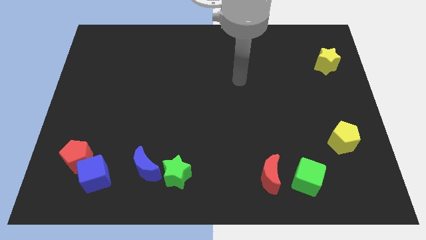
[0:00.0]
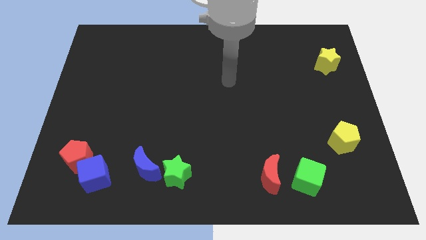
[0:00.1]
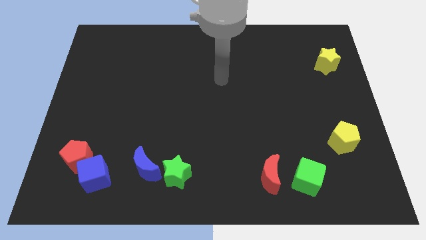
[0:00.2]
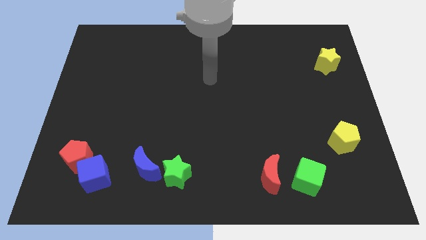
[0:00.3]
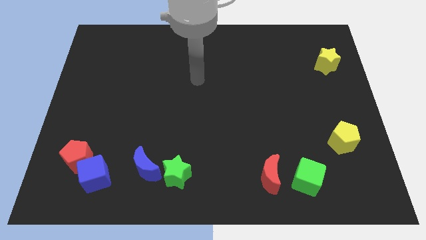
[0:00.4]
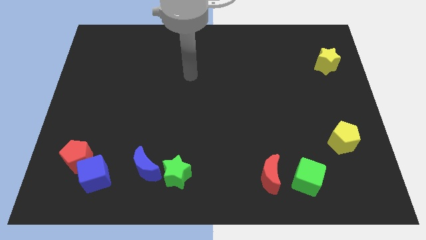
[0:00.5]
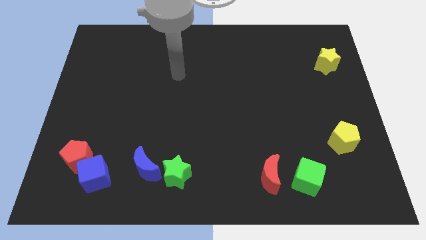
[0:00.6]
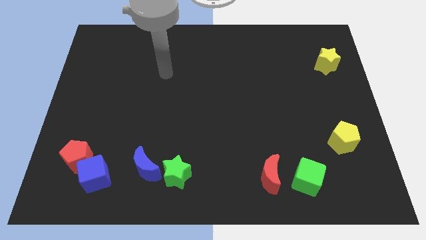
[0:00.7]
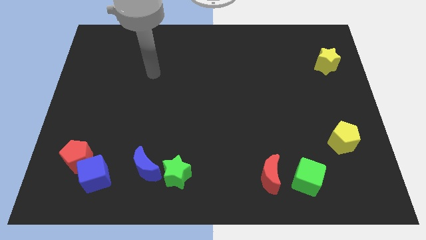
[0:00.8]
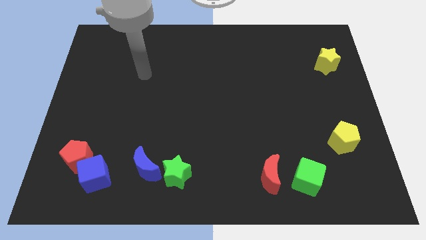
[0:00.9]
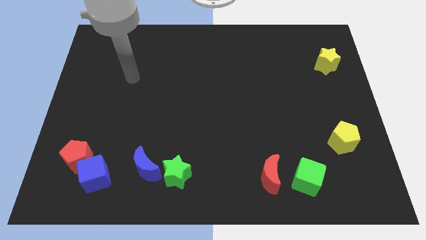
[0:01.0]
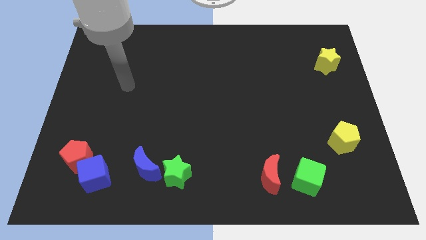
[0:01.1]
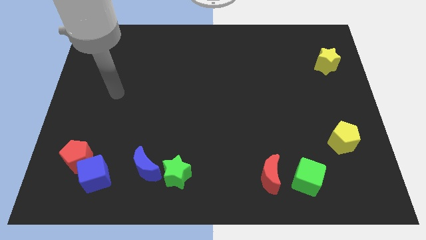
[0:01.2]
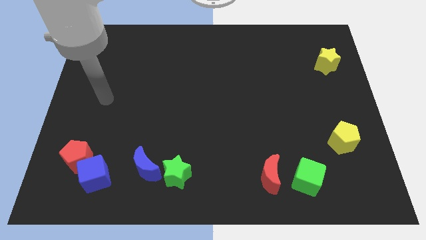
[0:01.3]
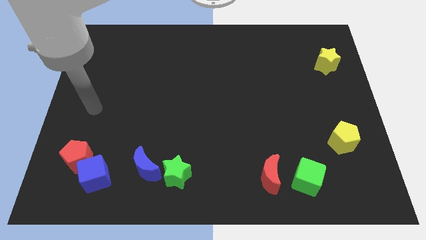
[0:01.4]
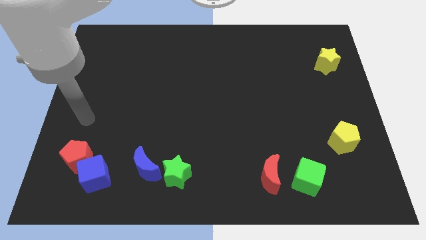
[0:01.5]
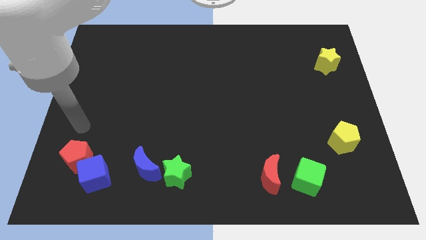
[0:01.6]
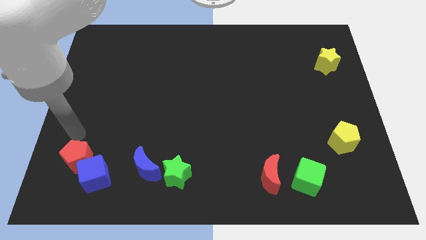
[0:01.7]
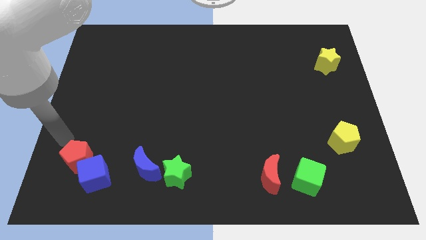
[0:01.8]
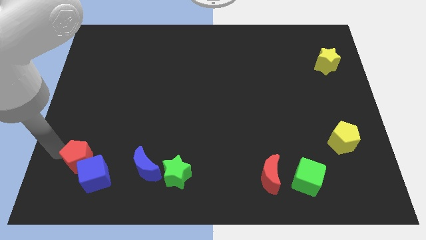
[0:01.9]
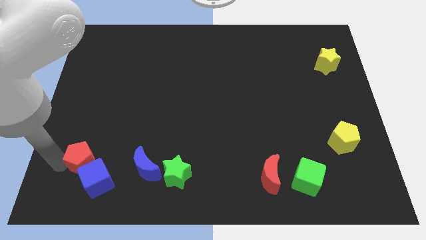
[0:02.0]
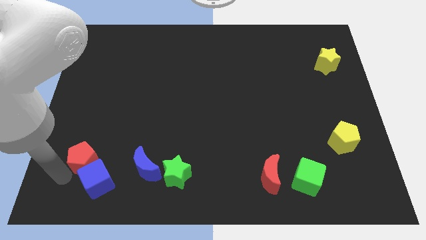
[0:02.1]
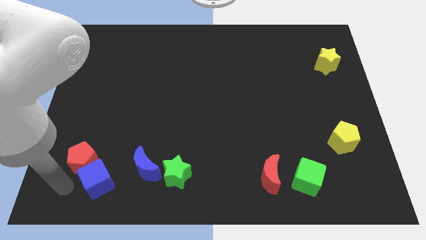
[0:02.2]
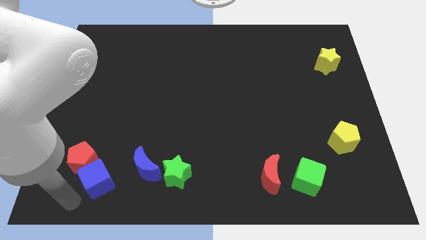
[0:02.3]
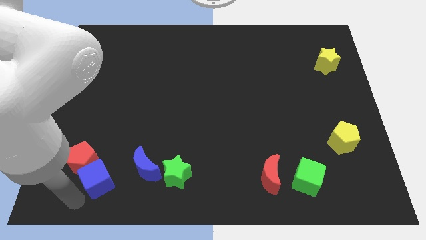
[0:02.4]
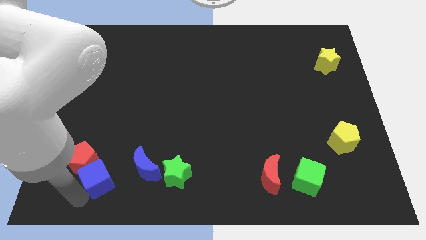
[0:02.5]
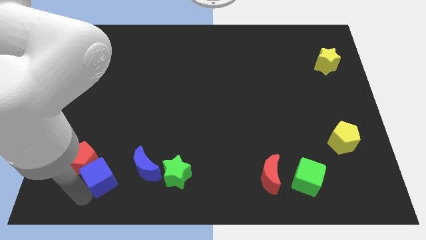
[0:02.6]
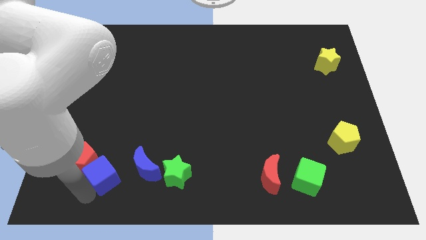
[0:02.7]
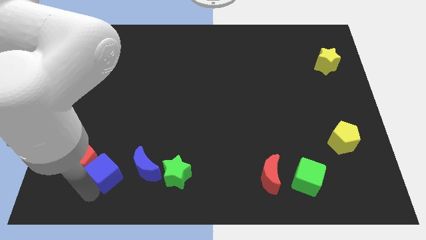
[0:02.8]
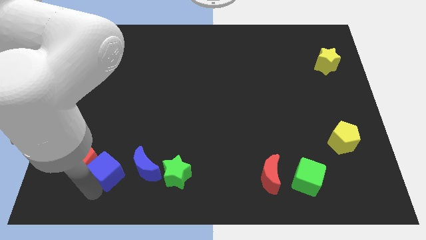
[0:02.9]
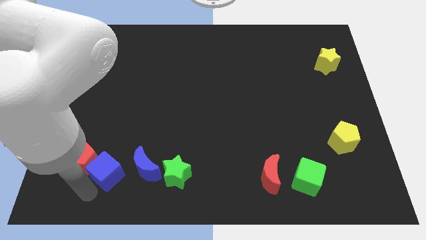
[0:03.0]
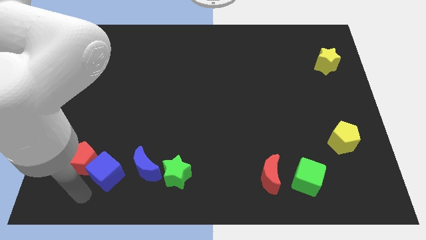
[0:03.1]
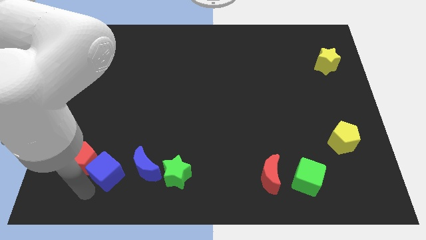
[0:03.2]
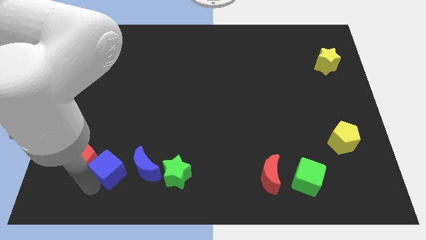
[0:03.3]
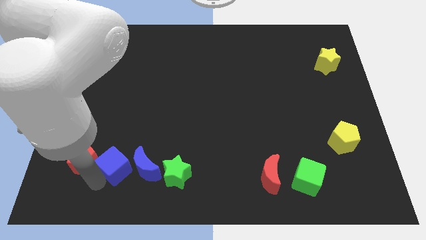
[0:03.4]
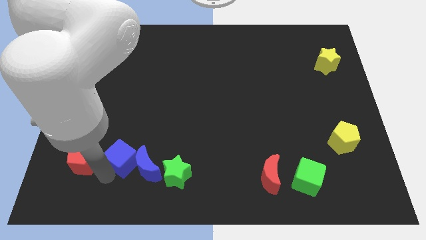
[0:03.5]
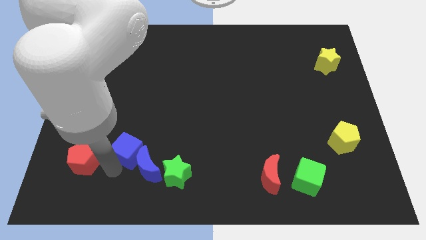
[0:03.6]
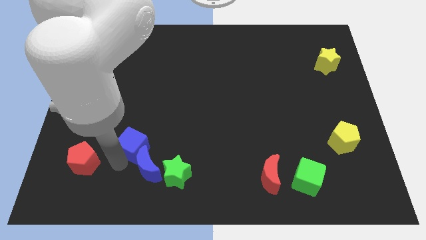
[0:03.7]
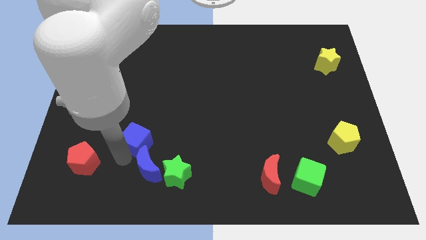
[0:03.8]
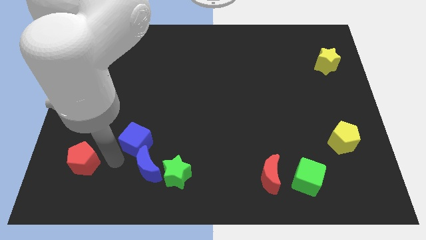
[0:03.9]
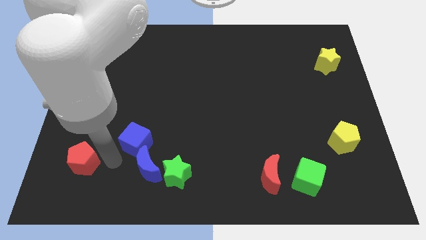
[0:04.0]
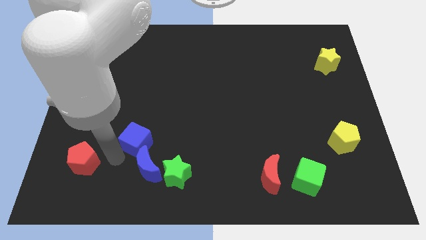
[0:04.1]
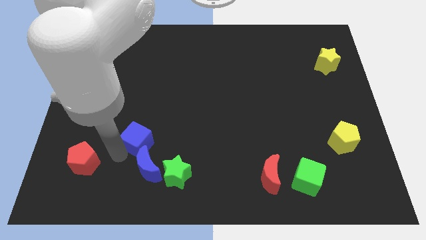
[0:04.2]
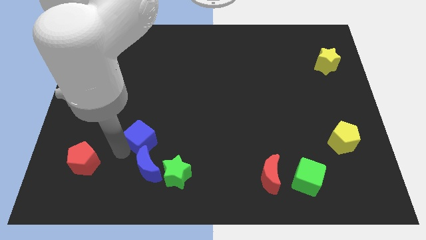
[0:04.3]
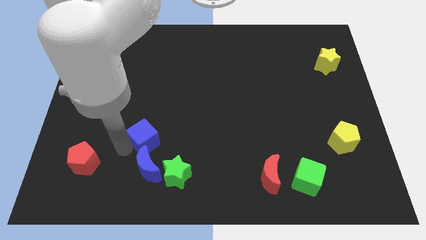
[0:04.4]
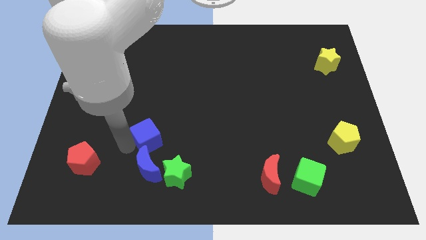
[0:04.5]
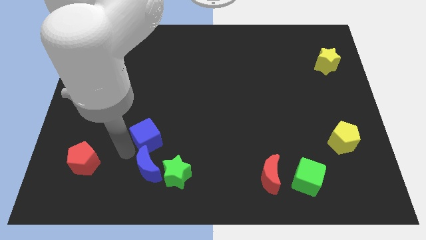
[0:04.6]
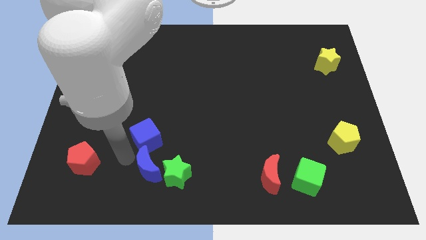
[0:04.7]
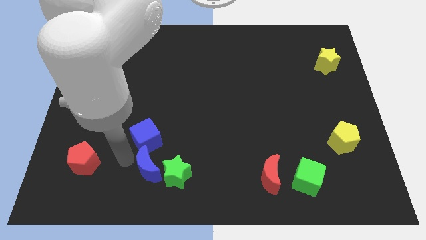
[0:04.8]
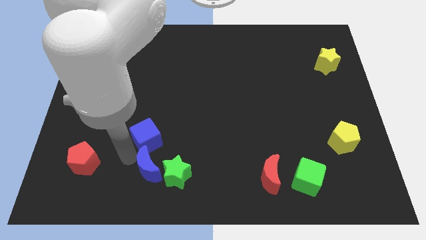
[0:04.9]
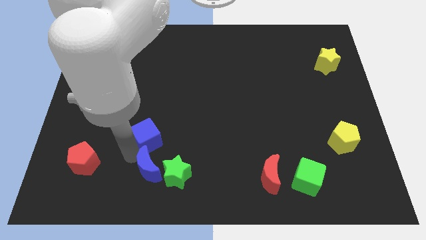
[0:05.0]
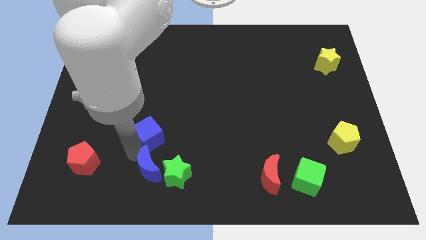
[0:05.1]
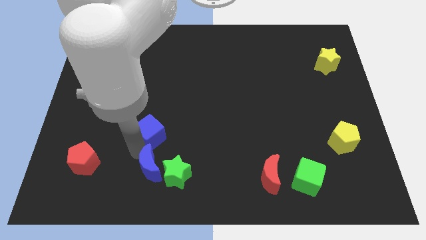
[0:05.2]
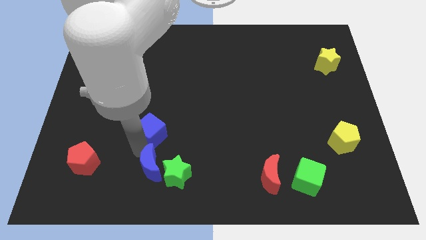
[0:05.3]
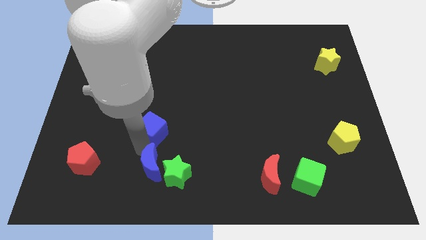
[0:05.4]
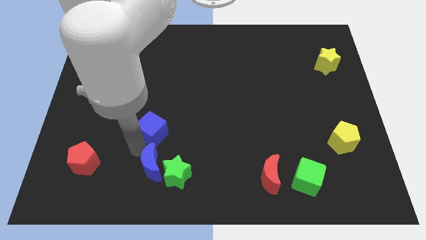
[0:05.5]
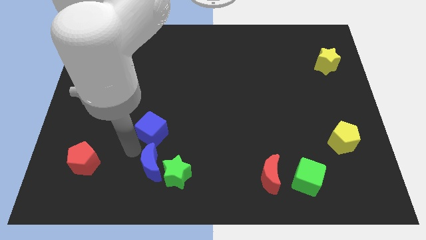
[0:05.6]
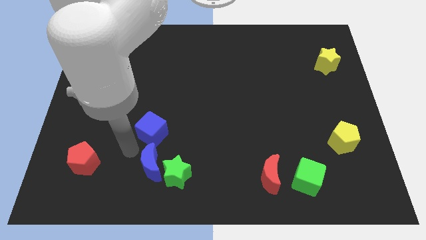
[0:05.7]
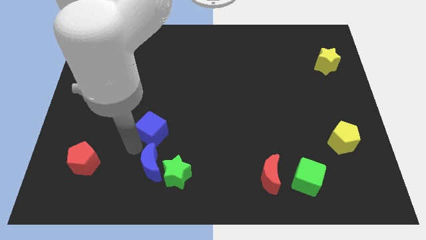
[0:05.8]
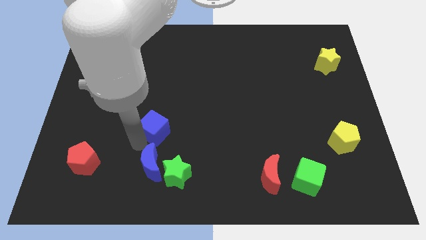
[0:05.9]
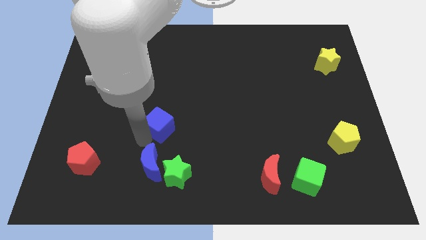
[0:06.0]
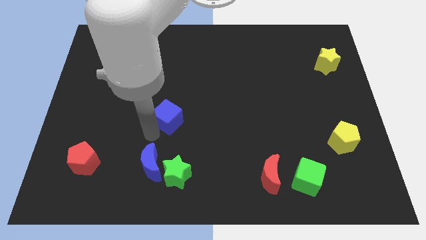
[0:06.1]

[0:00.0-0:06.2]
push the blue cube up and to the right diagonally

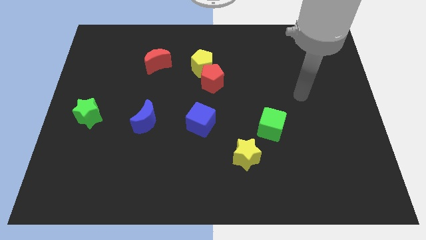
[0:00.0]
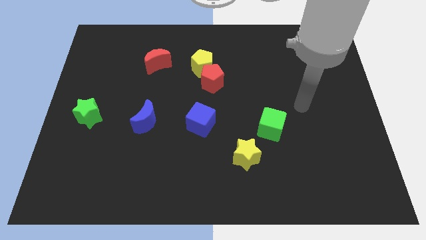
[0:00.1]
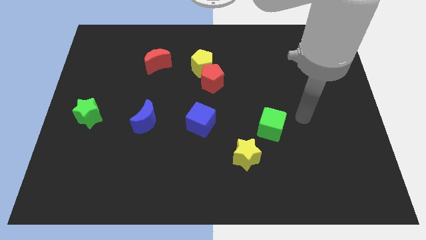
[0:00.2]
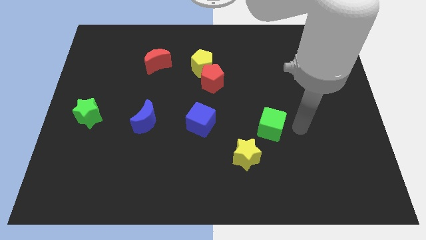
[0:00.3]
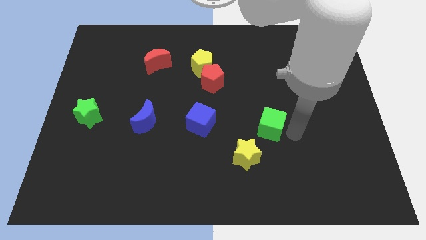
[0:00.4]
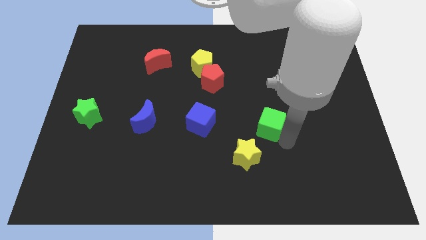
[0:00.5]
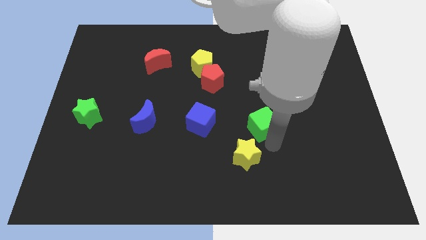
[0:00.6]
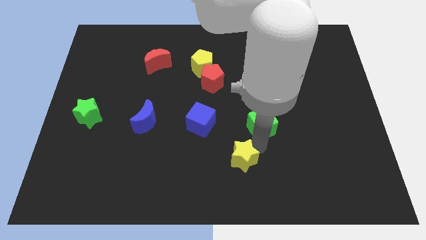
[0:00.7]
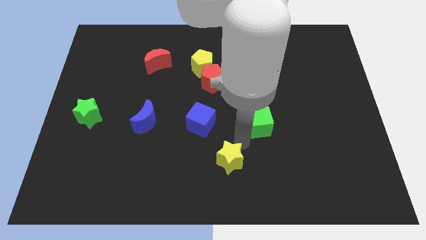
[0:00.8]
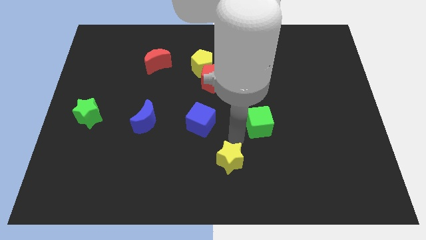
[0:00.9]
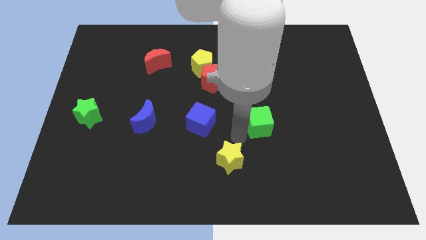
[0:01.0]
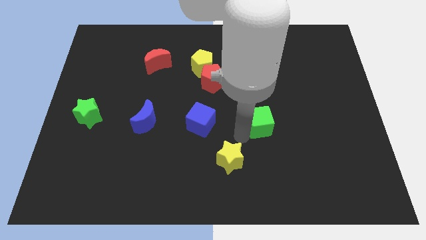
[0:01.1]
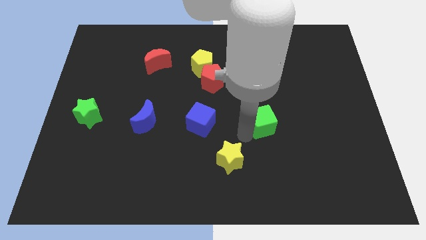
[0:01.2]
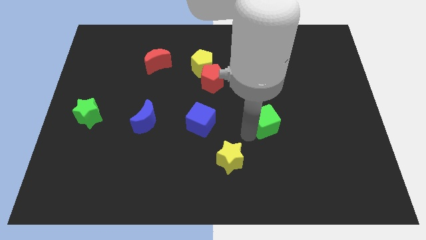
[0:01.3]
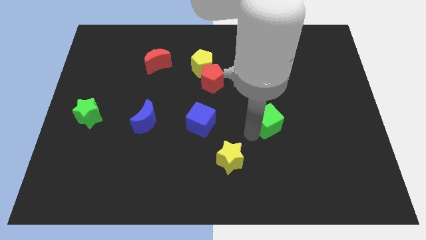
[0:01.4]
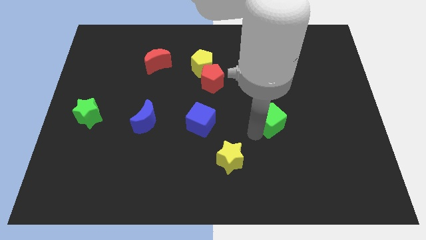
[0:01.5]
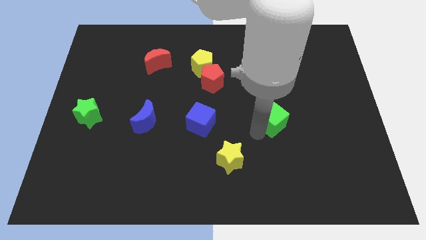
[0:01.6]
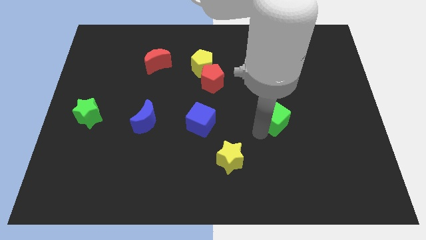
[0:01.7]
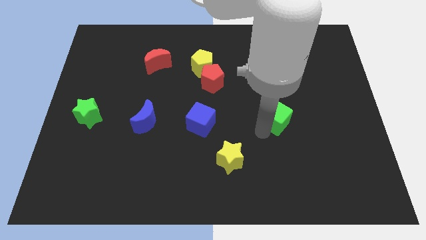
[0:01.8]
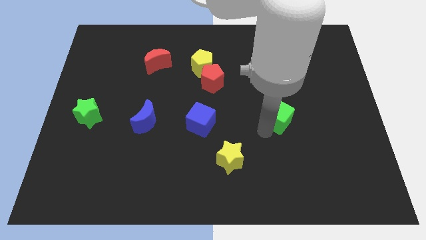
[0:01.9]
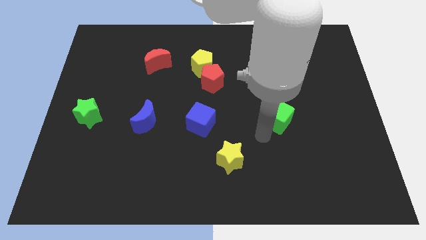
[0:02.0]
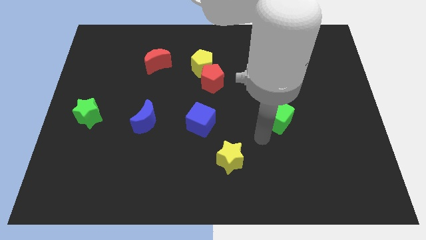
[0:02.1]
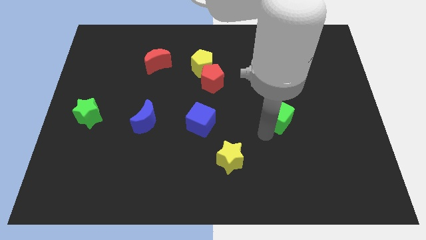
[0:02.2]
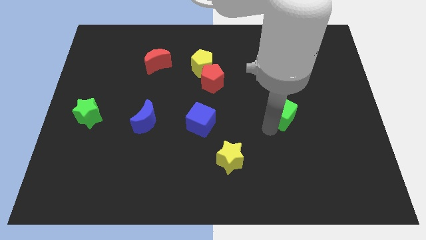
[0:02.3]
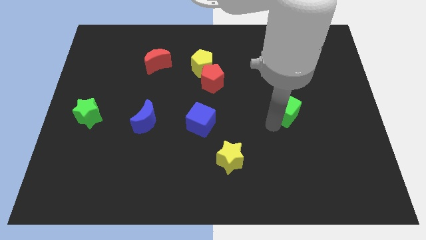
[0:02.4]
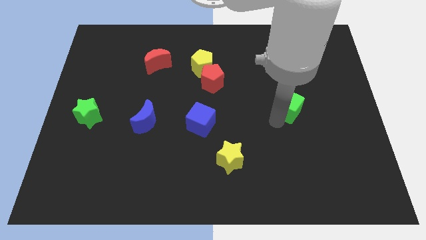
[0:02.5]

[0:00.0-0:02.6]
move the green cube up and right diagonally somewhat
